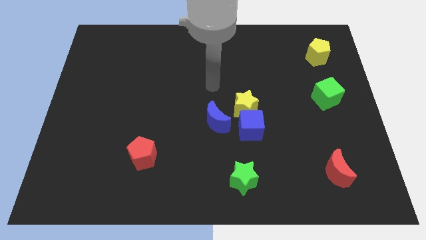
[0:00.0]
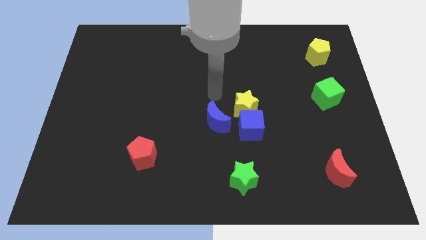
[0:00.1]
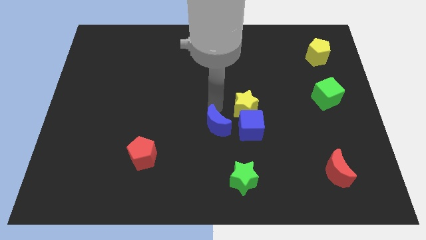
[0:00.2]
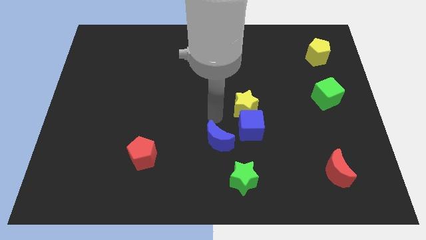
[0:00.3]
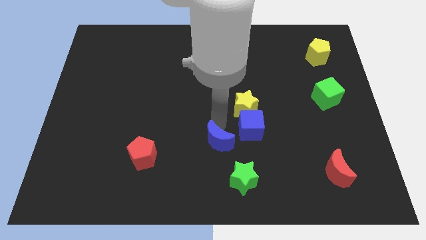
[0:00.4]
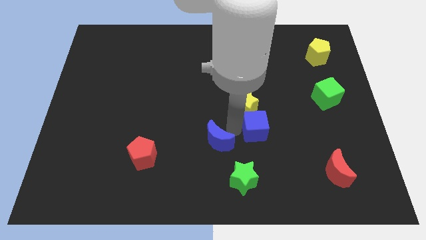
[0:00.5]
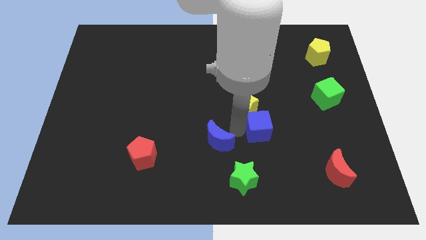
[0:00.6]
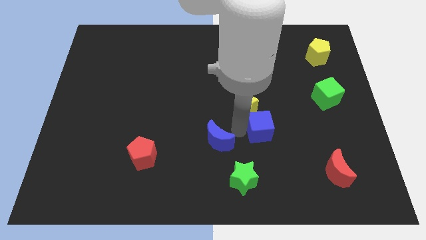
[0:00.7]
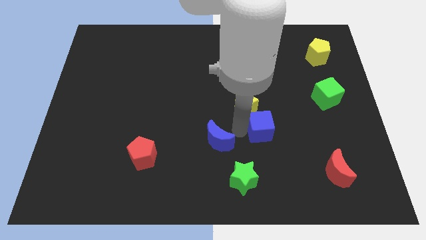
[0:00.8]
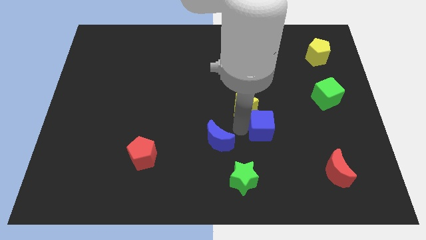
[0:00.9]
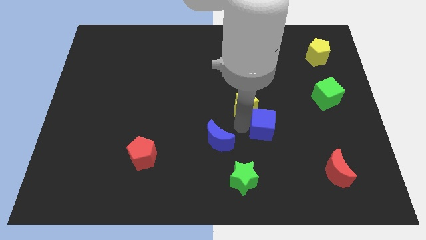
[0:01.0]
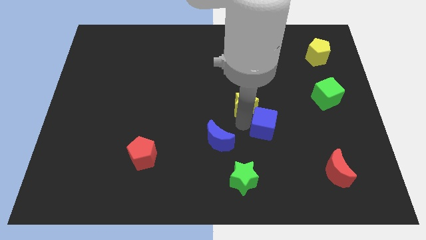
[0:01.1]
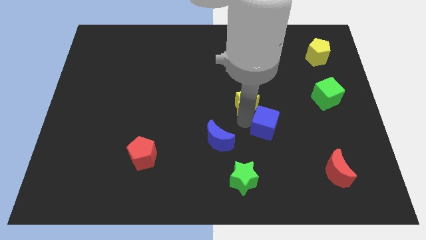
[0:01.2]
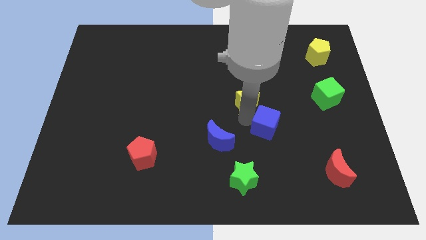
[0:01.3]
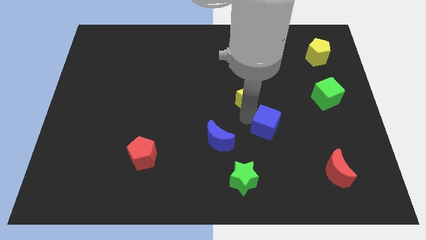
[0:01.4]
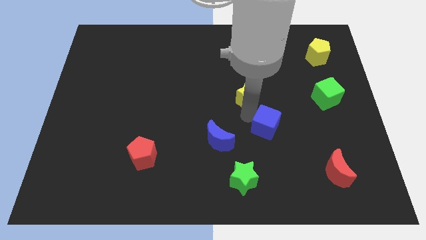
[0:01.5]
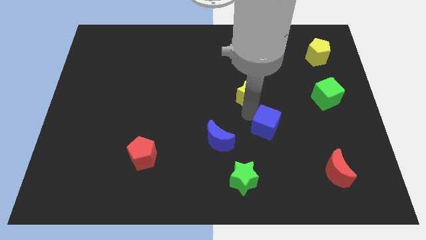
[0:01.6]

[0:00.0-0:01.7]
pull the yellow star apart from the blue cube and blue moon

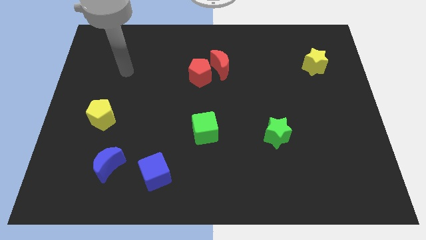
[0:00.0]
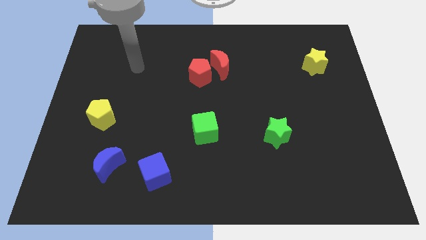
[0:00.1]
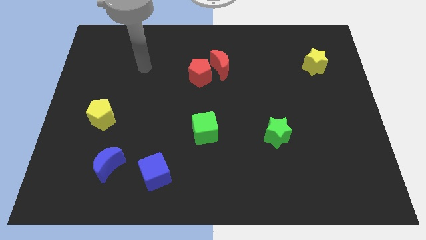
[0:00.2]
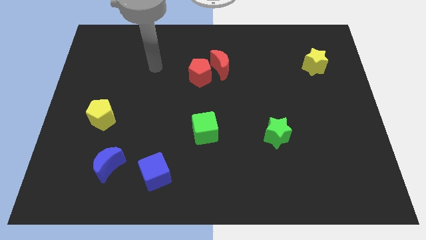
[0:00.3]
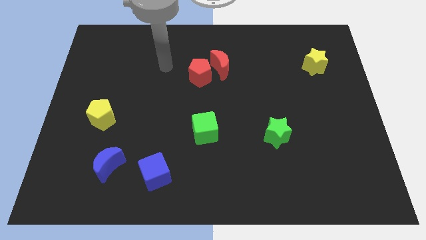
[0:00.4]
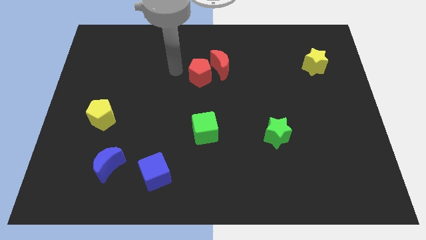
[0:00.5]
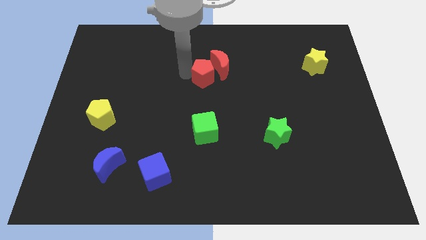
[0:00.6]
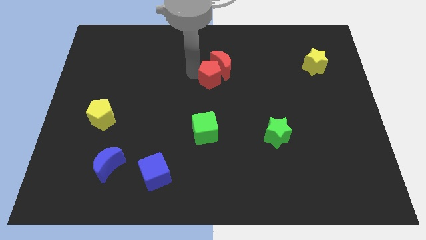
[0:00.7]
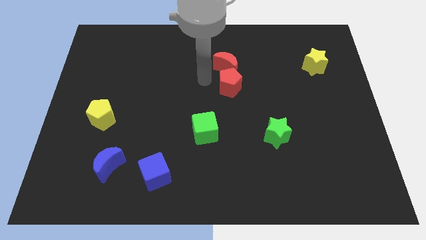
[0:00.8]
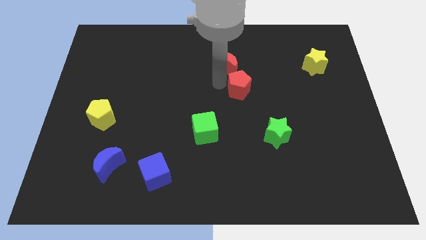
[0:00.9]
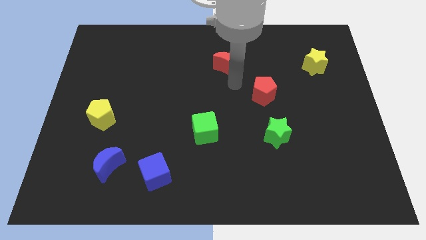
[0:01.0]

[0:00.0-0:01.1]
move the red moon away from the red pentagon

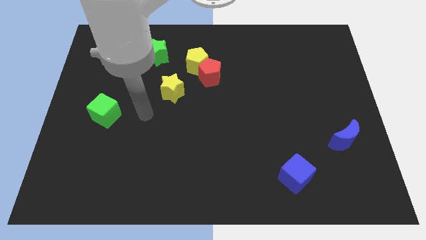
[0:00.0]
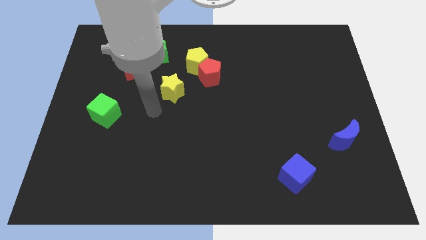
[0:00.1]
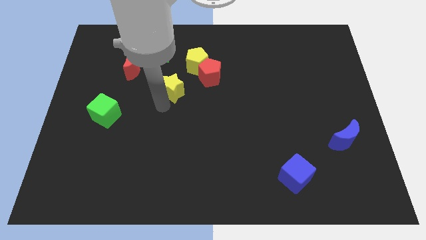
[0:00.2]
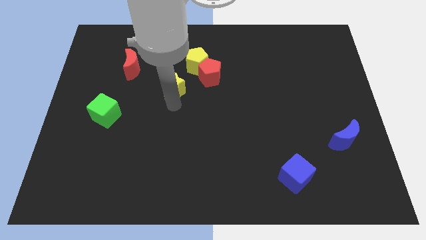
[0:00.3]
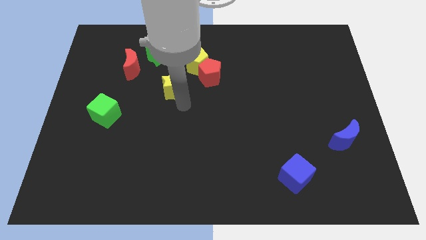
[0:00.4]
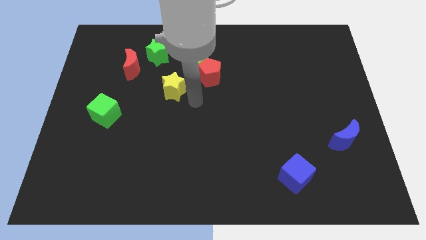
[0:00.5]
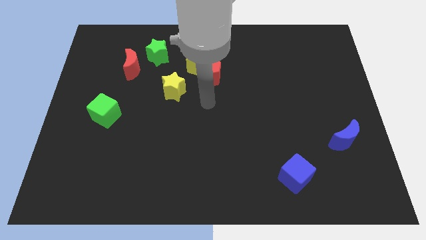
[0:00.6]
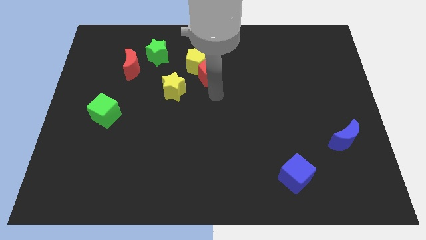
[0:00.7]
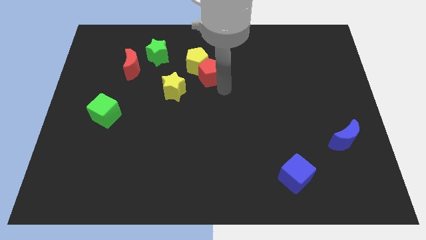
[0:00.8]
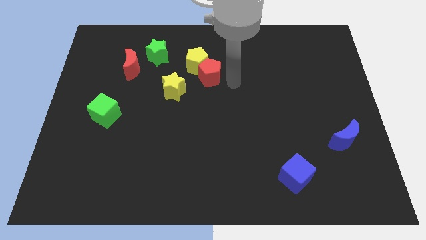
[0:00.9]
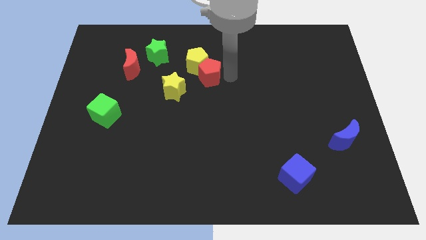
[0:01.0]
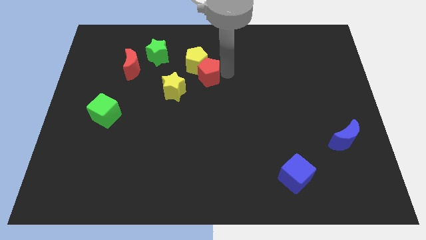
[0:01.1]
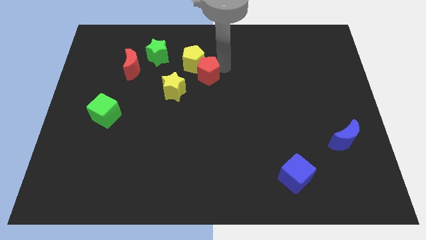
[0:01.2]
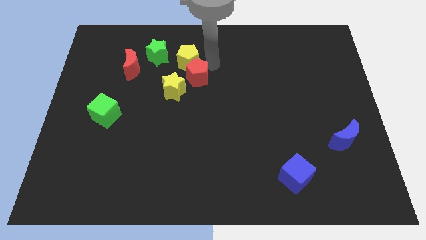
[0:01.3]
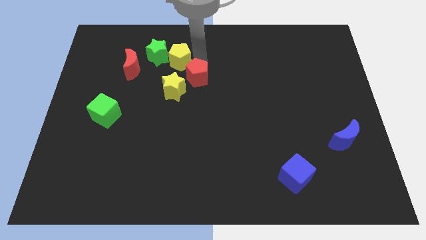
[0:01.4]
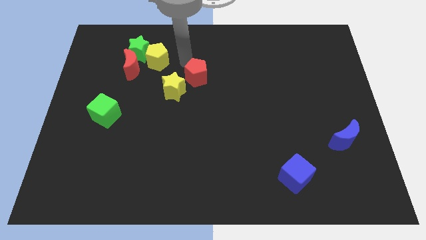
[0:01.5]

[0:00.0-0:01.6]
pull the red pentagon apart from the yellow pentagon

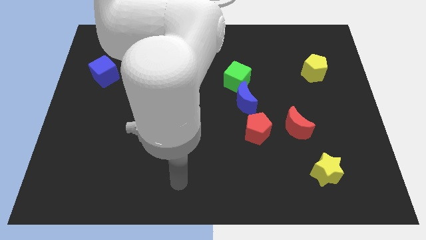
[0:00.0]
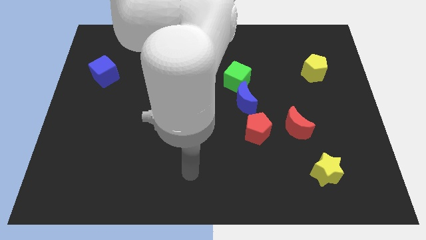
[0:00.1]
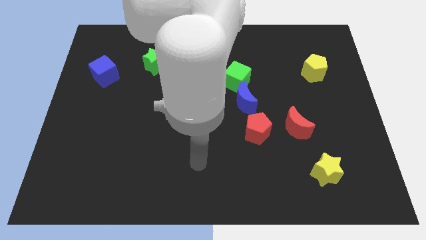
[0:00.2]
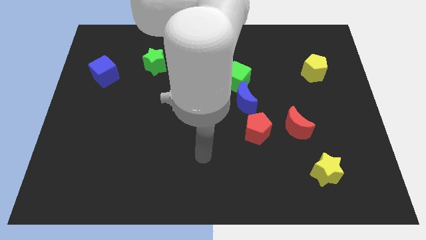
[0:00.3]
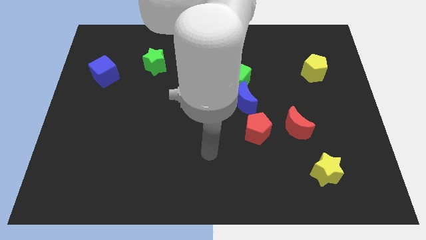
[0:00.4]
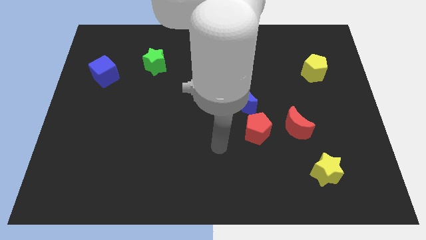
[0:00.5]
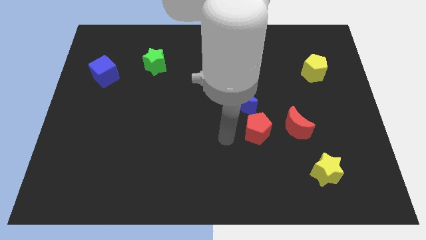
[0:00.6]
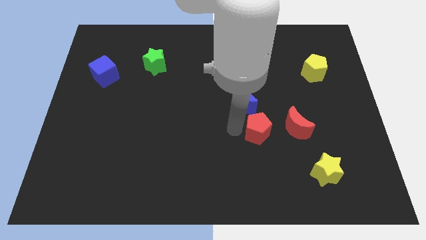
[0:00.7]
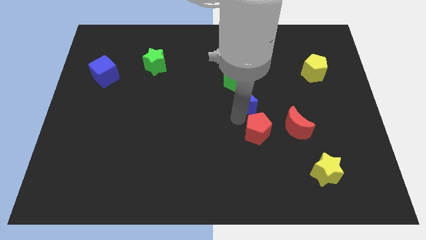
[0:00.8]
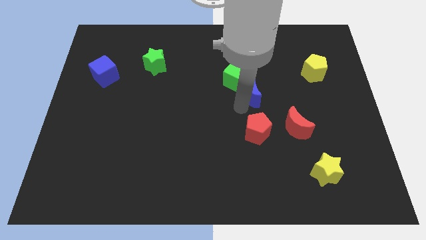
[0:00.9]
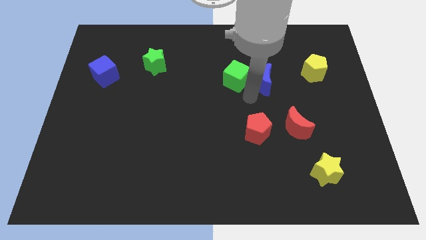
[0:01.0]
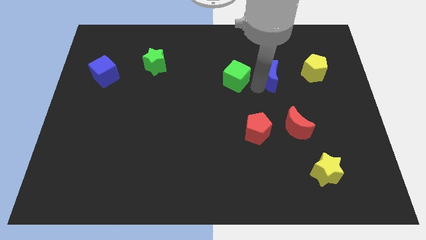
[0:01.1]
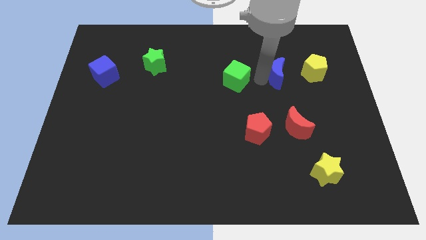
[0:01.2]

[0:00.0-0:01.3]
move the green cube away from the blue moon

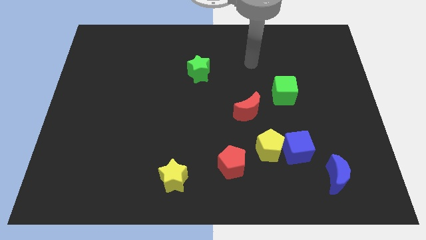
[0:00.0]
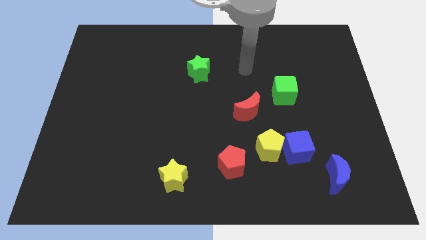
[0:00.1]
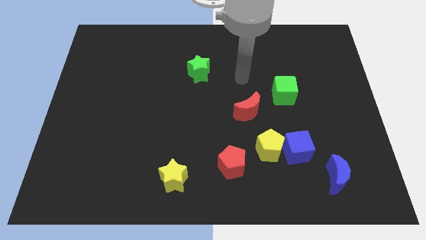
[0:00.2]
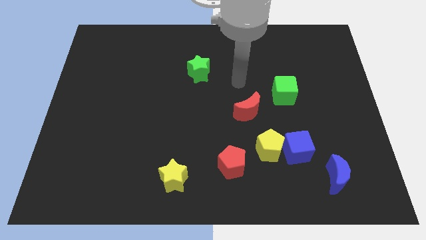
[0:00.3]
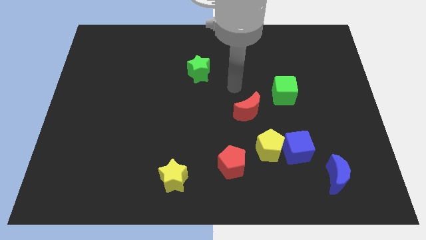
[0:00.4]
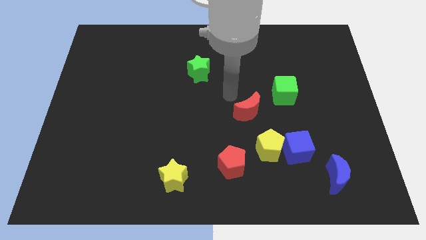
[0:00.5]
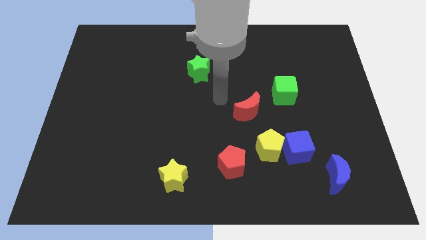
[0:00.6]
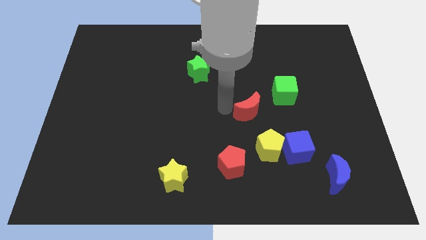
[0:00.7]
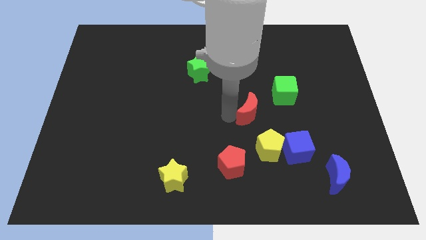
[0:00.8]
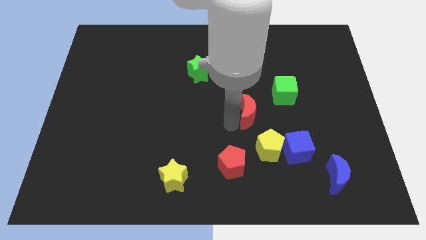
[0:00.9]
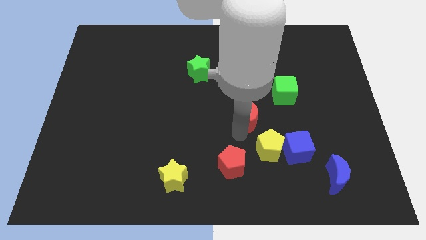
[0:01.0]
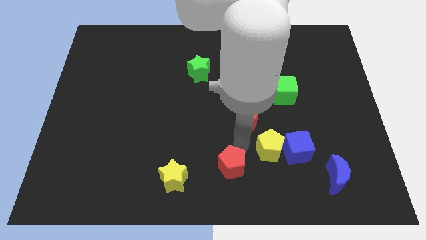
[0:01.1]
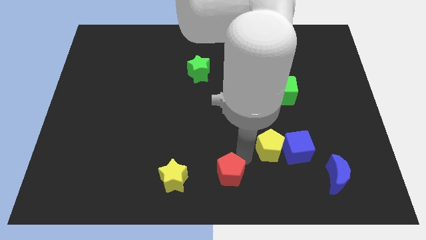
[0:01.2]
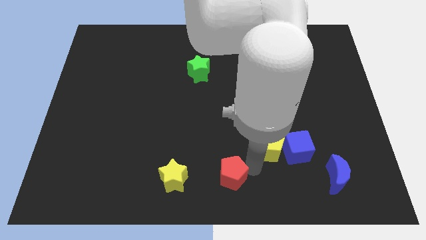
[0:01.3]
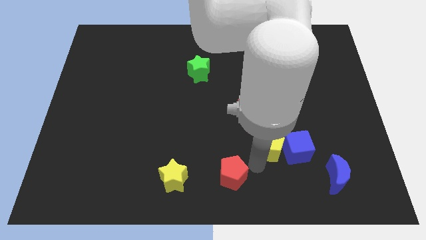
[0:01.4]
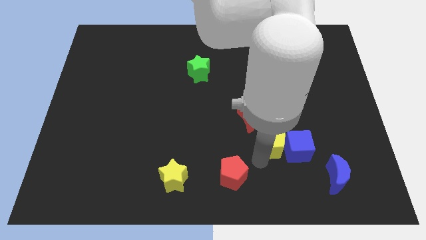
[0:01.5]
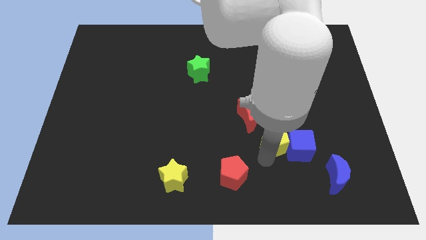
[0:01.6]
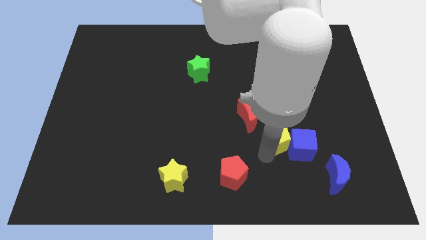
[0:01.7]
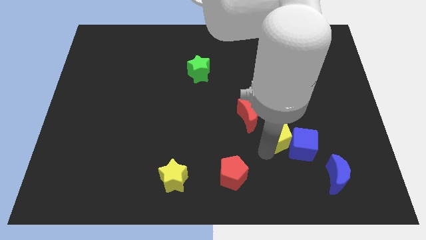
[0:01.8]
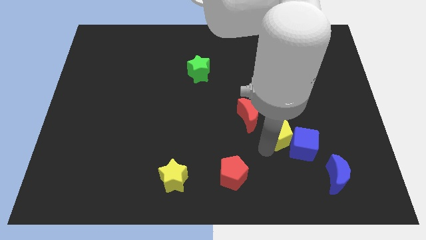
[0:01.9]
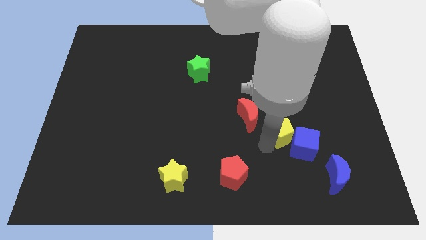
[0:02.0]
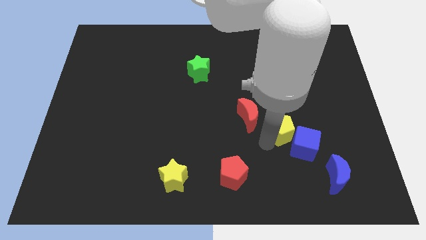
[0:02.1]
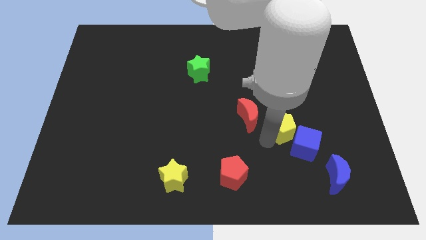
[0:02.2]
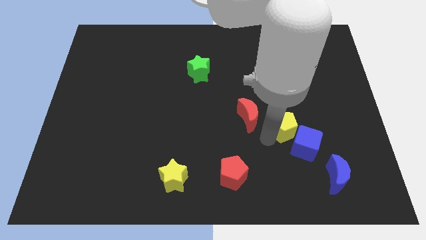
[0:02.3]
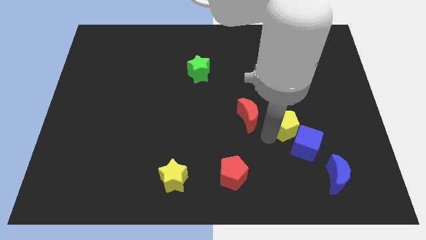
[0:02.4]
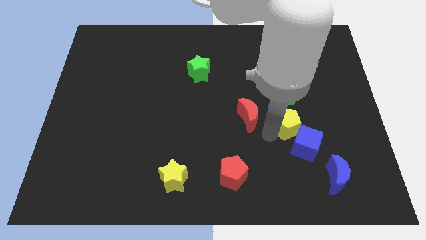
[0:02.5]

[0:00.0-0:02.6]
pull the yellow pentagon apart from the blue cube and red pentagon

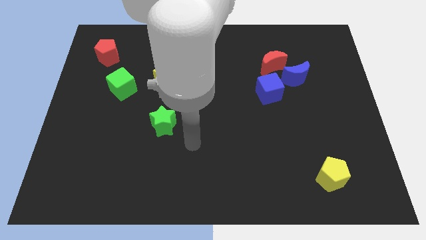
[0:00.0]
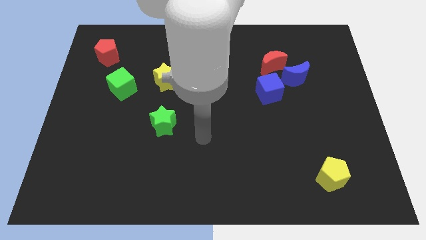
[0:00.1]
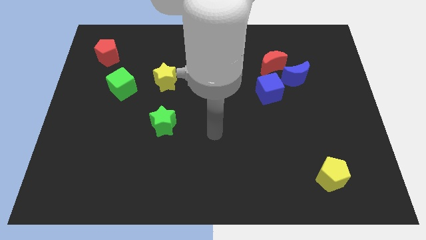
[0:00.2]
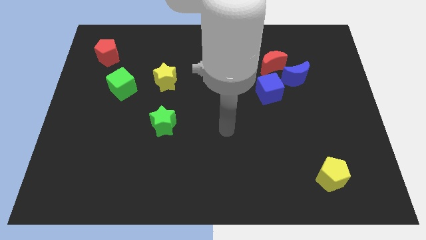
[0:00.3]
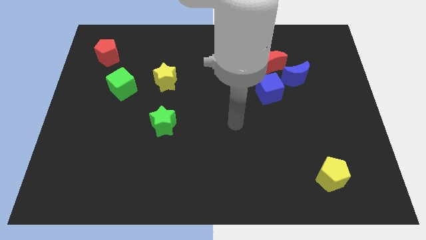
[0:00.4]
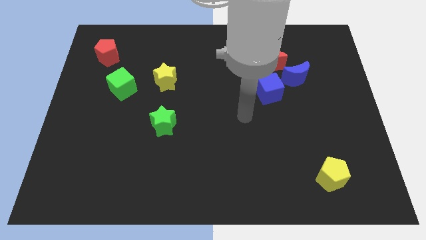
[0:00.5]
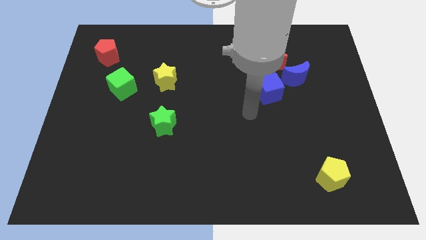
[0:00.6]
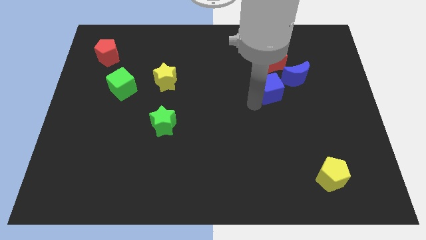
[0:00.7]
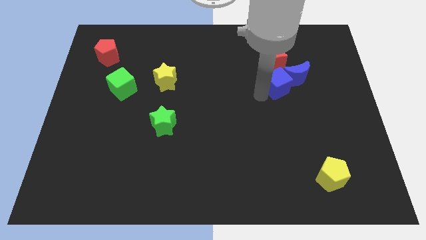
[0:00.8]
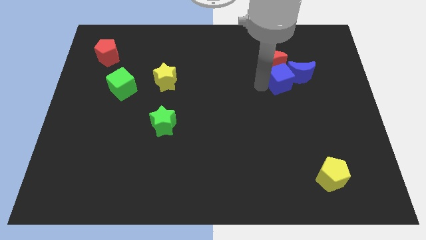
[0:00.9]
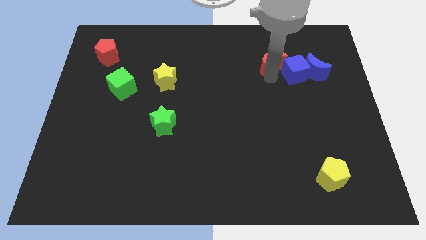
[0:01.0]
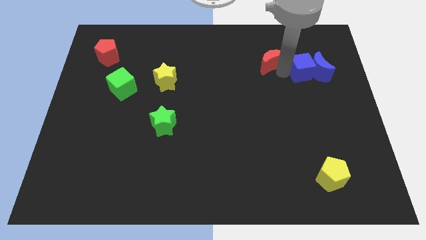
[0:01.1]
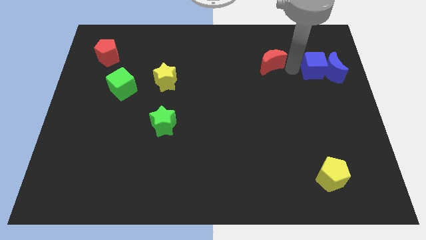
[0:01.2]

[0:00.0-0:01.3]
pull the blue moon apart from the red moon and blue cube
